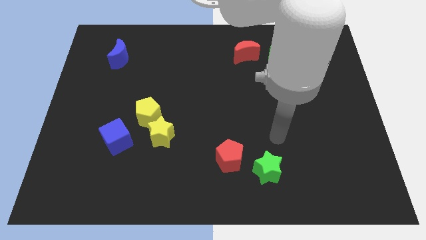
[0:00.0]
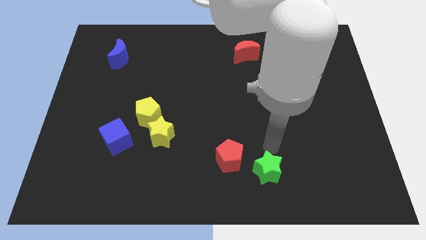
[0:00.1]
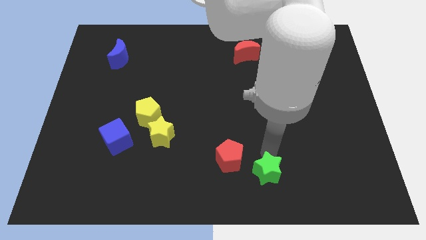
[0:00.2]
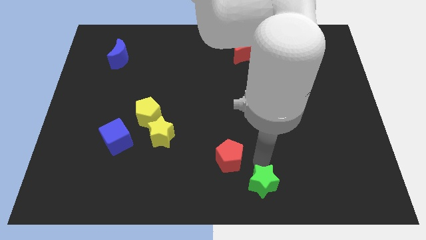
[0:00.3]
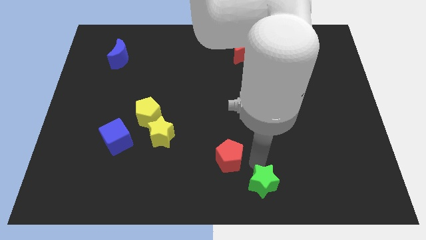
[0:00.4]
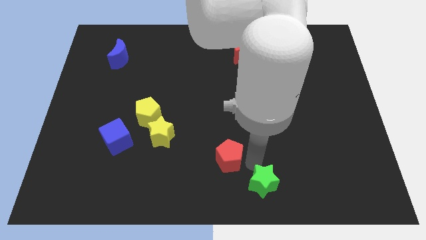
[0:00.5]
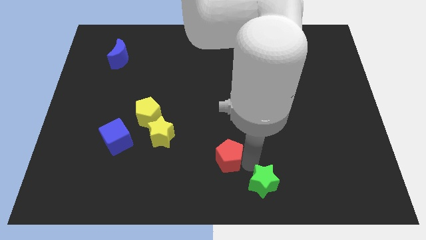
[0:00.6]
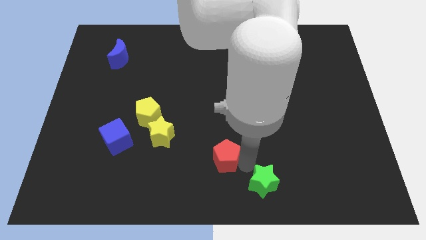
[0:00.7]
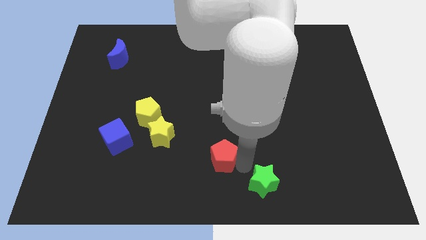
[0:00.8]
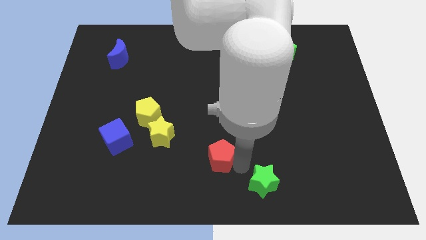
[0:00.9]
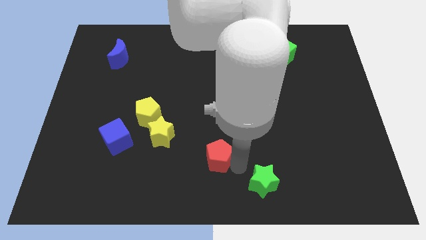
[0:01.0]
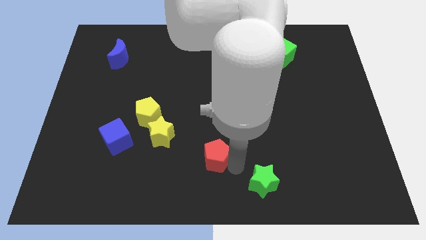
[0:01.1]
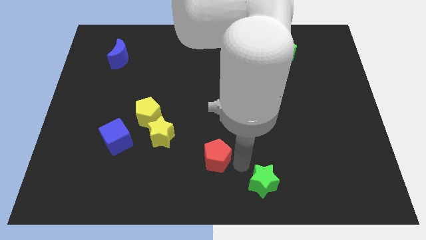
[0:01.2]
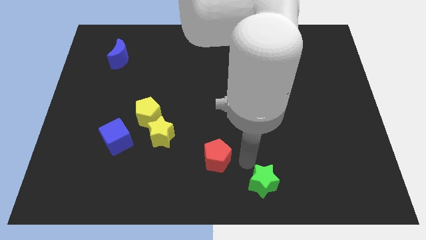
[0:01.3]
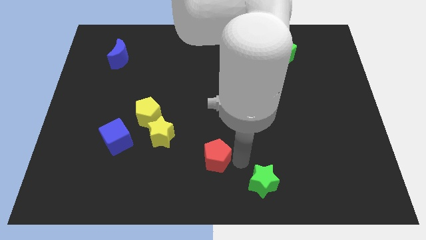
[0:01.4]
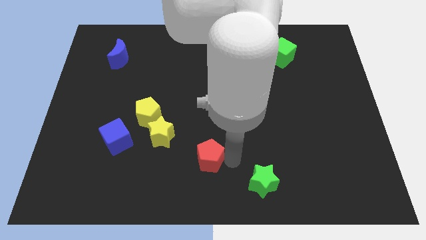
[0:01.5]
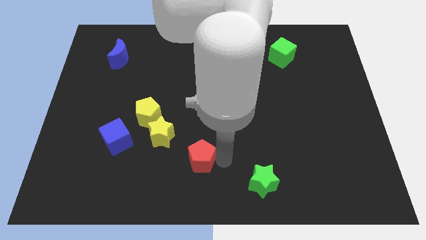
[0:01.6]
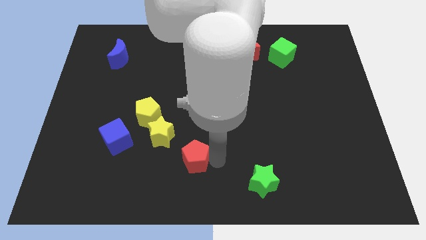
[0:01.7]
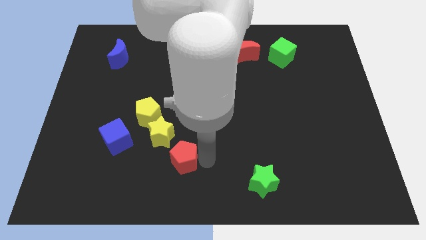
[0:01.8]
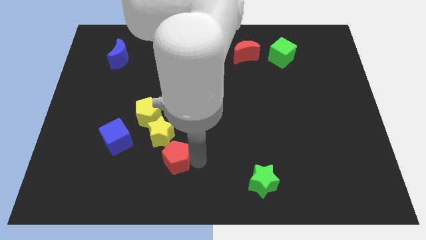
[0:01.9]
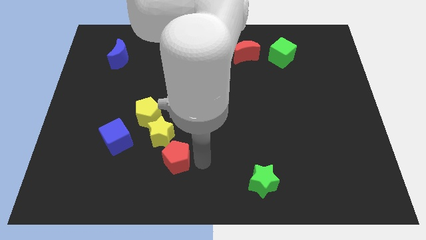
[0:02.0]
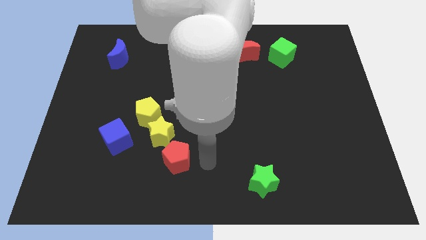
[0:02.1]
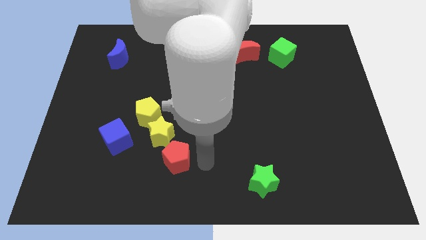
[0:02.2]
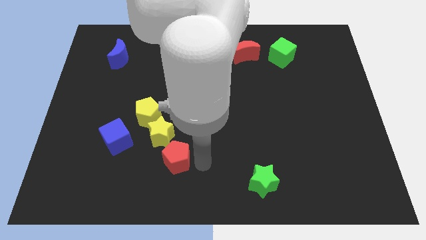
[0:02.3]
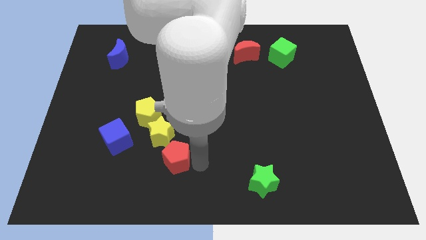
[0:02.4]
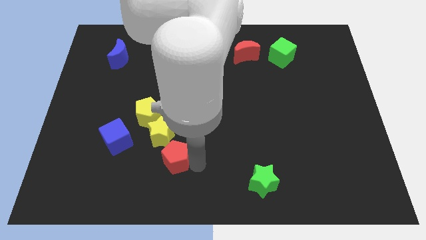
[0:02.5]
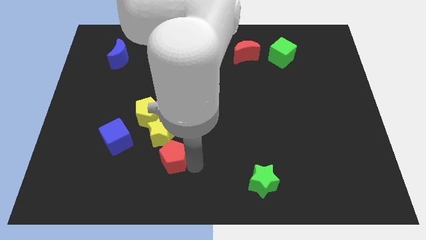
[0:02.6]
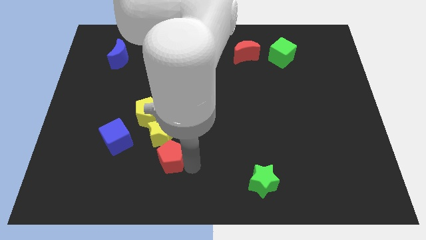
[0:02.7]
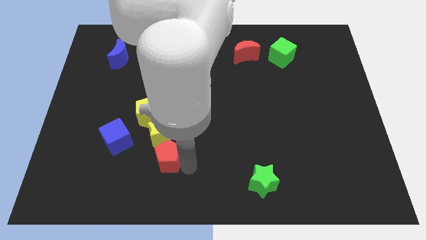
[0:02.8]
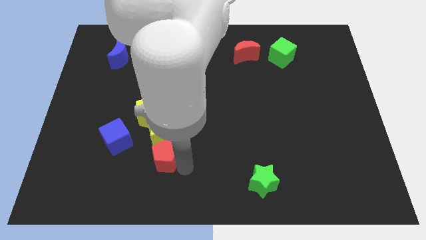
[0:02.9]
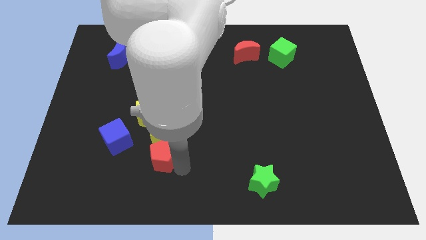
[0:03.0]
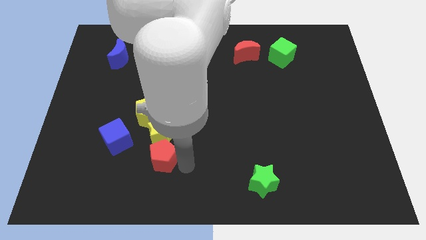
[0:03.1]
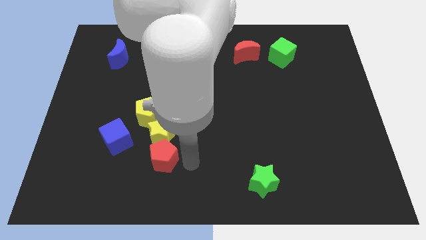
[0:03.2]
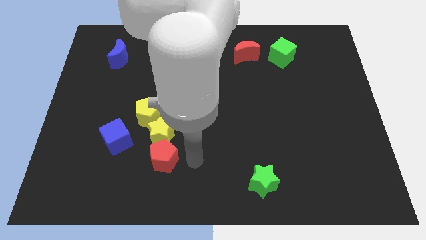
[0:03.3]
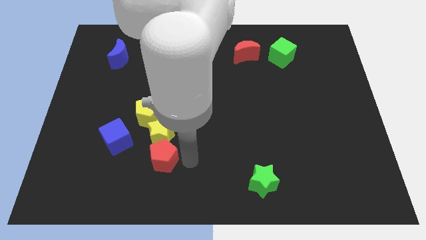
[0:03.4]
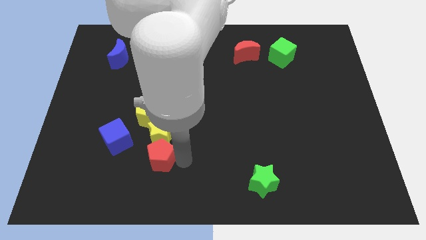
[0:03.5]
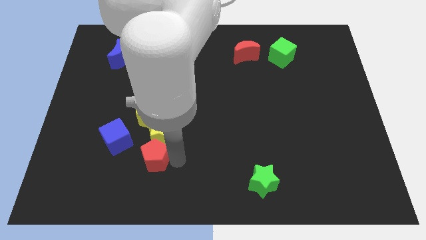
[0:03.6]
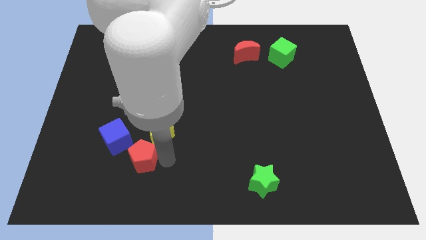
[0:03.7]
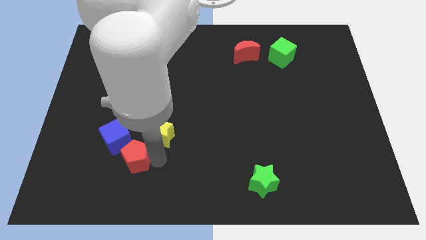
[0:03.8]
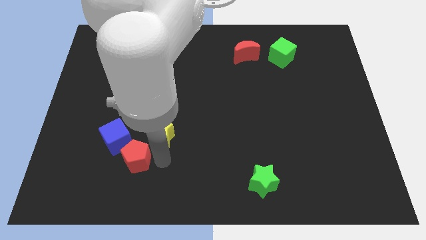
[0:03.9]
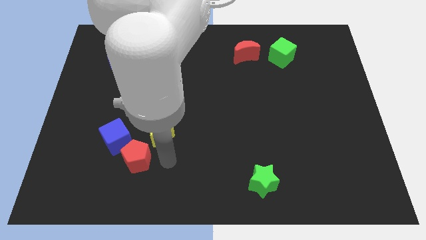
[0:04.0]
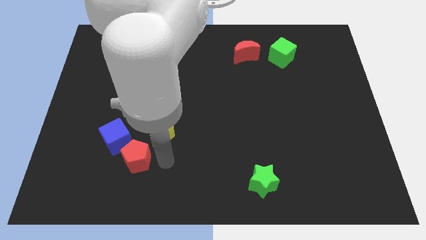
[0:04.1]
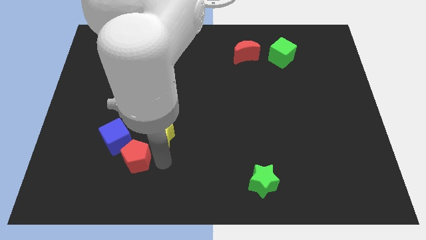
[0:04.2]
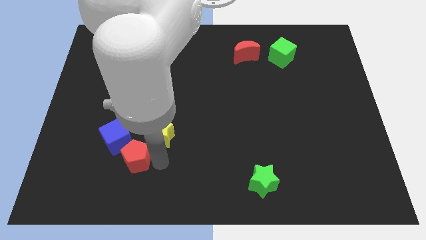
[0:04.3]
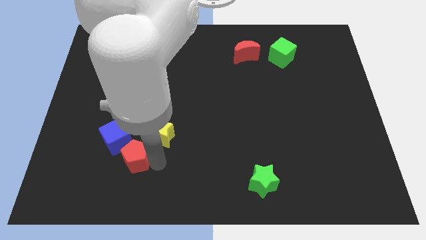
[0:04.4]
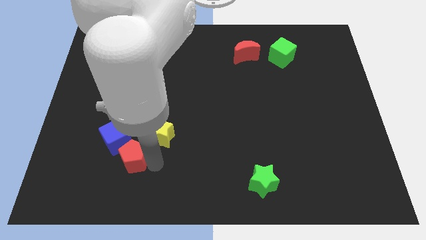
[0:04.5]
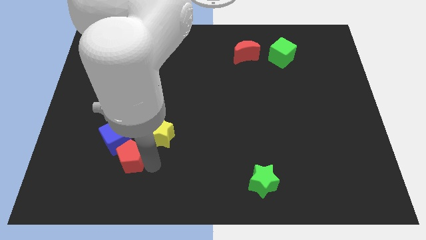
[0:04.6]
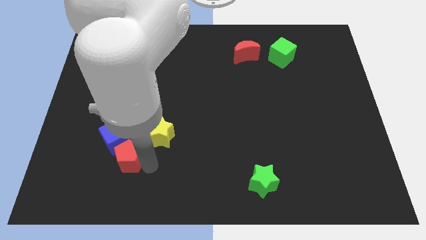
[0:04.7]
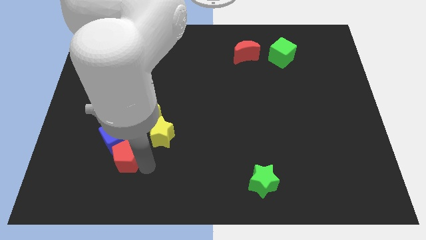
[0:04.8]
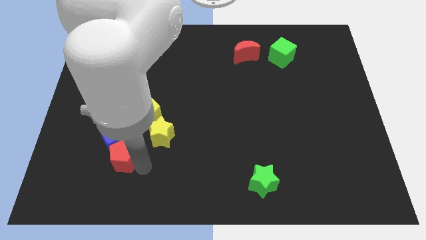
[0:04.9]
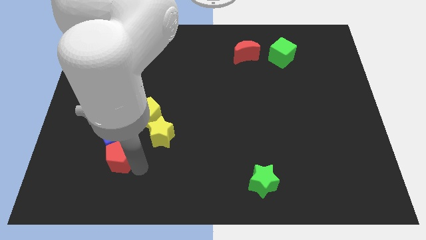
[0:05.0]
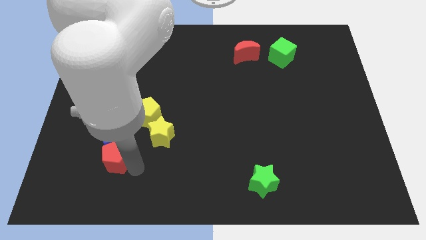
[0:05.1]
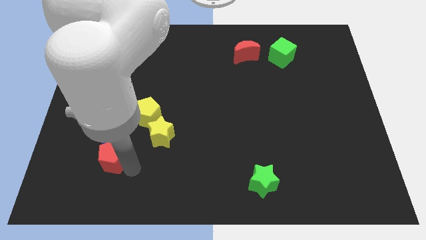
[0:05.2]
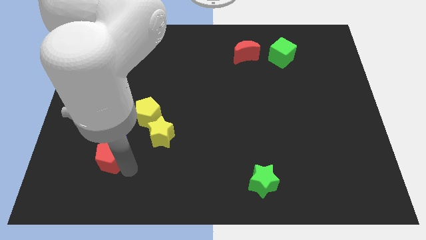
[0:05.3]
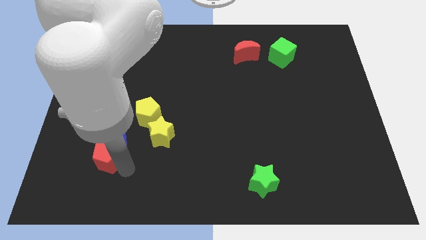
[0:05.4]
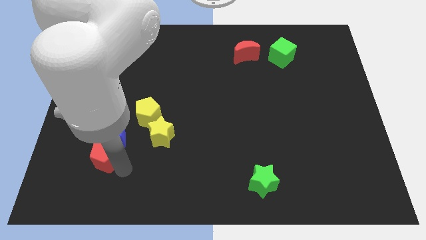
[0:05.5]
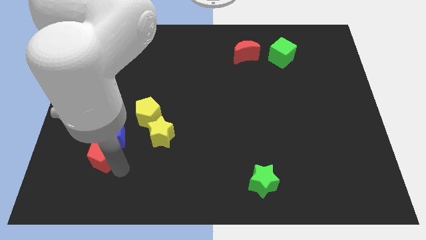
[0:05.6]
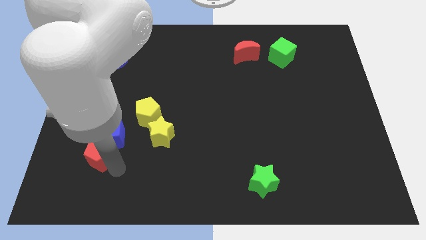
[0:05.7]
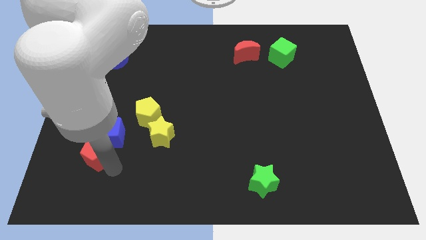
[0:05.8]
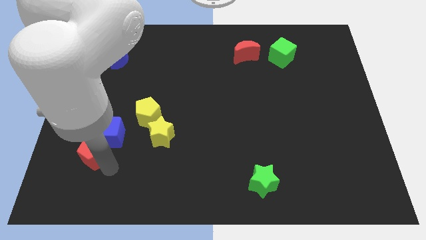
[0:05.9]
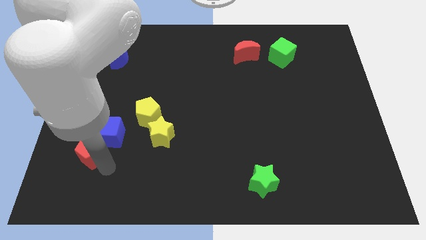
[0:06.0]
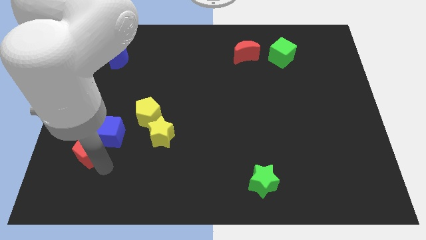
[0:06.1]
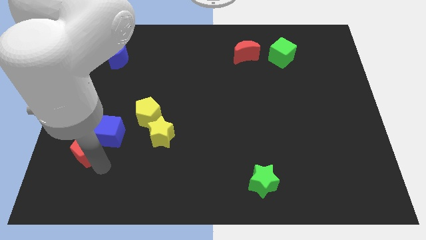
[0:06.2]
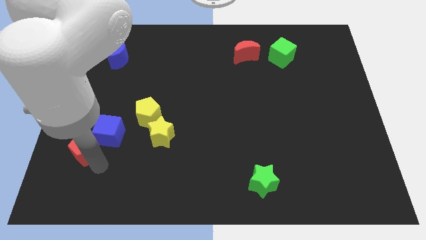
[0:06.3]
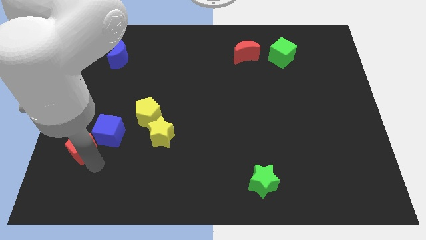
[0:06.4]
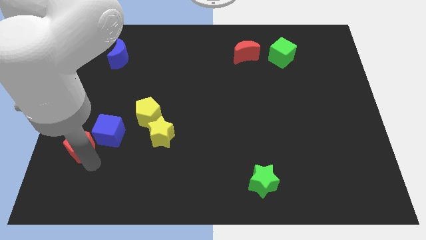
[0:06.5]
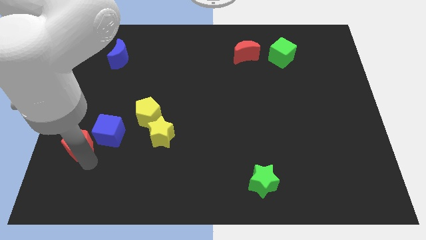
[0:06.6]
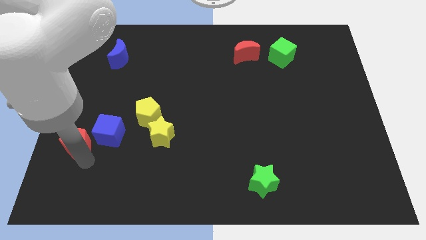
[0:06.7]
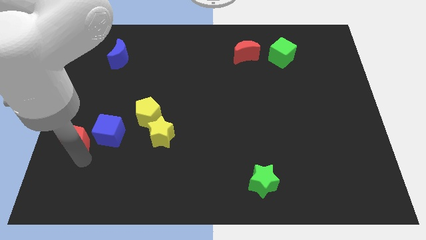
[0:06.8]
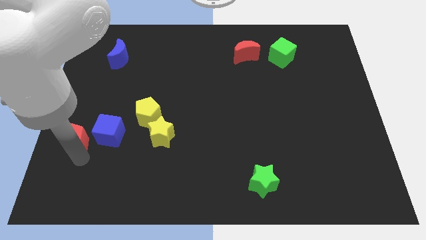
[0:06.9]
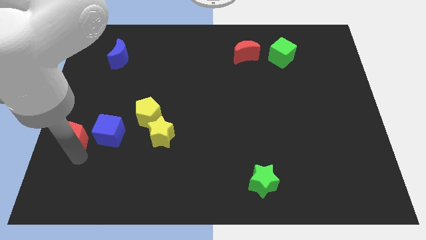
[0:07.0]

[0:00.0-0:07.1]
push the red pentagon to the center left
